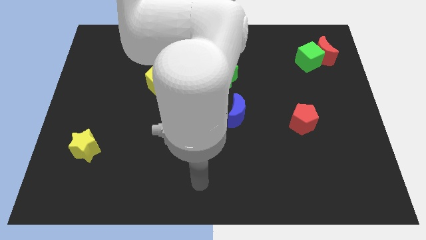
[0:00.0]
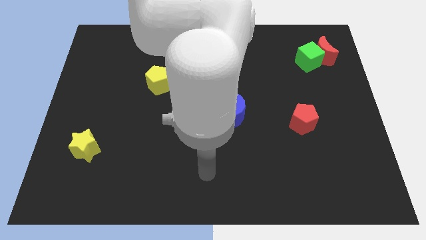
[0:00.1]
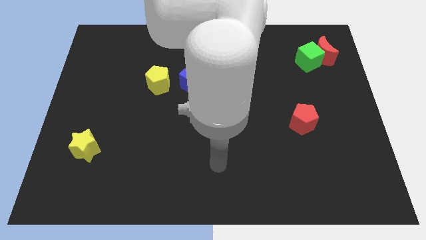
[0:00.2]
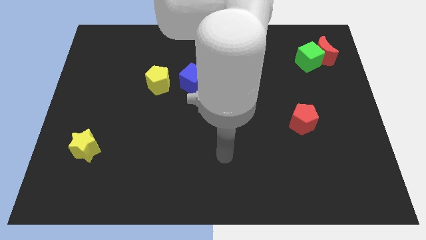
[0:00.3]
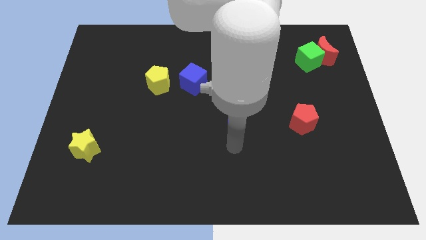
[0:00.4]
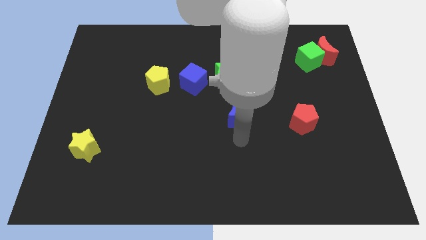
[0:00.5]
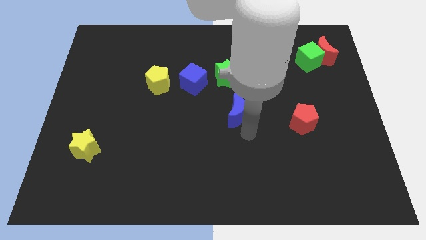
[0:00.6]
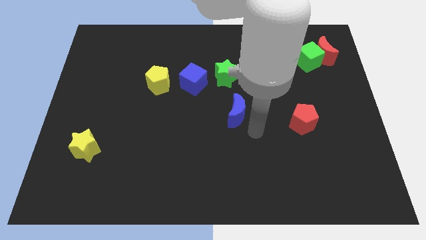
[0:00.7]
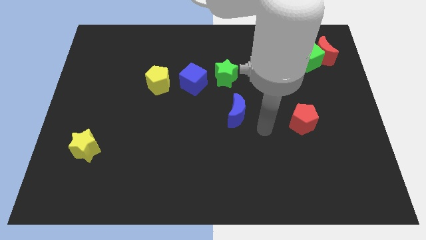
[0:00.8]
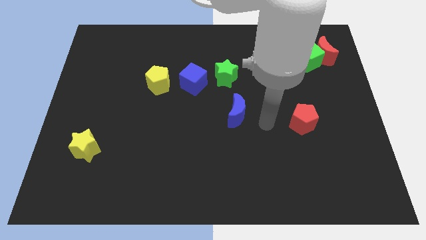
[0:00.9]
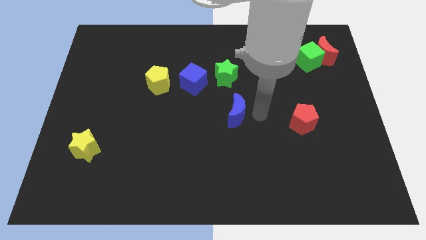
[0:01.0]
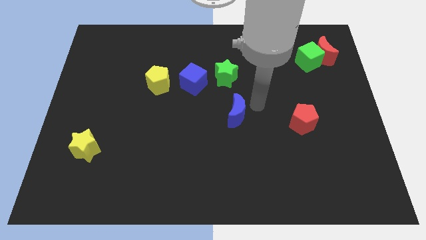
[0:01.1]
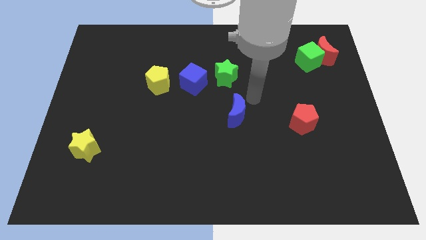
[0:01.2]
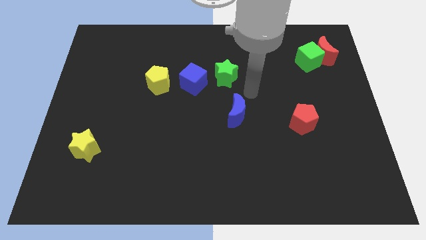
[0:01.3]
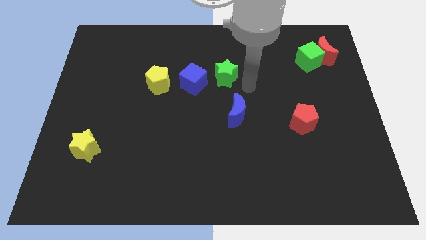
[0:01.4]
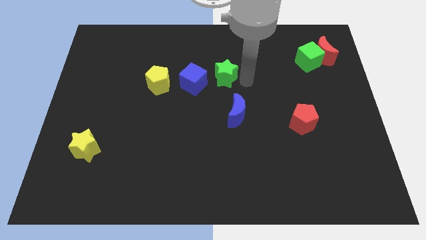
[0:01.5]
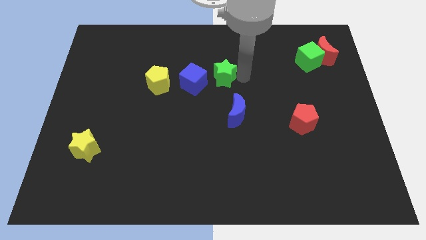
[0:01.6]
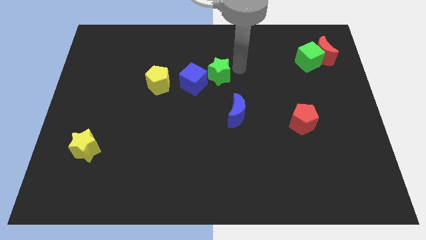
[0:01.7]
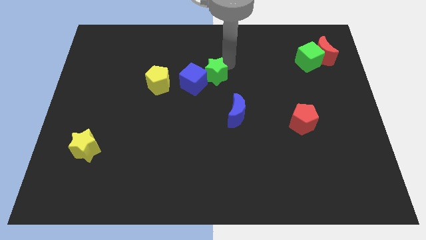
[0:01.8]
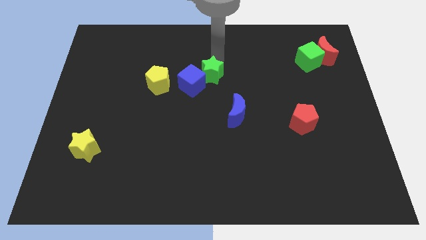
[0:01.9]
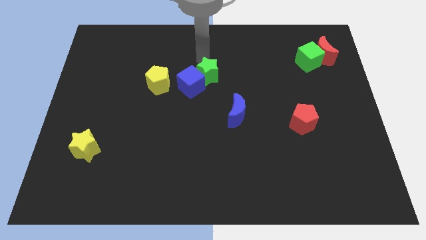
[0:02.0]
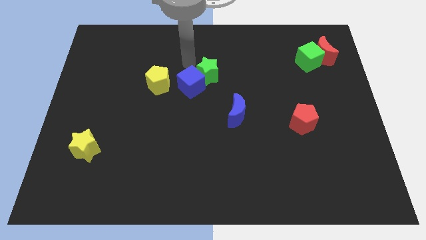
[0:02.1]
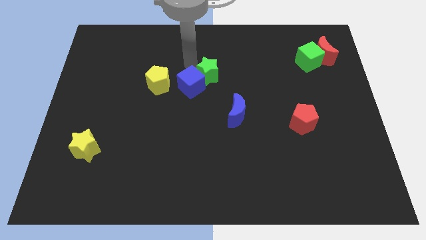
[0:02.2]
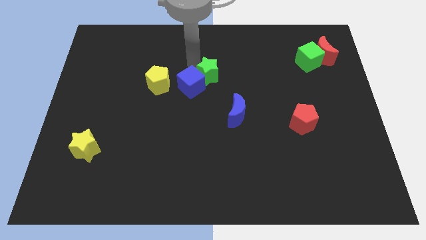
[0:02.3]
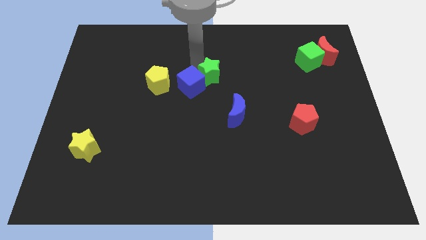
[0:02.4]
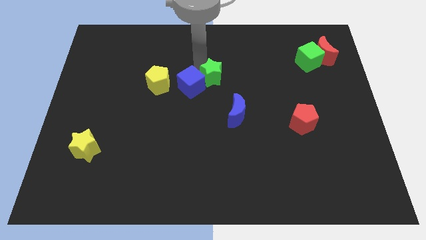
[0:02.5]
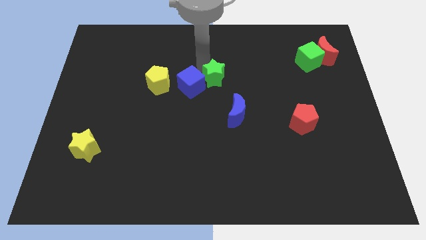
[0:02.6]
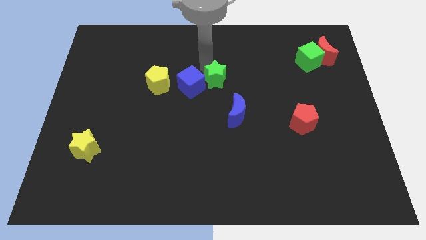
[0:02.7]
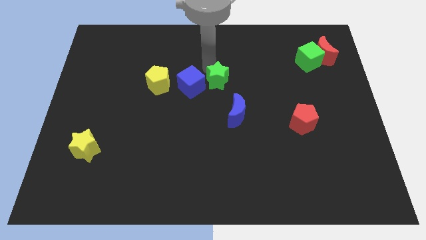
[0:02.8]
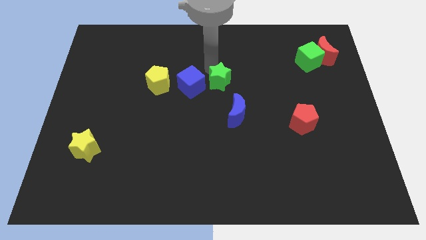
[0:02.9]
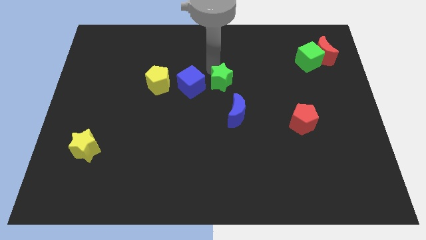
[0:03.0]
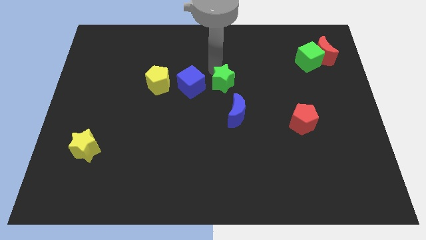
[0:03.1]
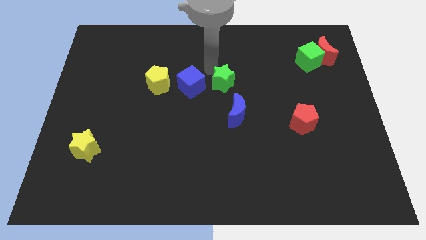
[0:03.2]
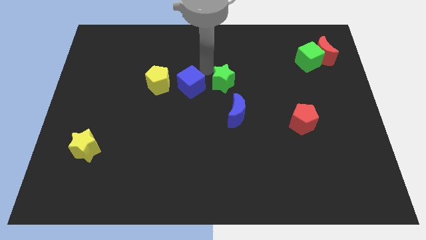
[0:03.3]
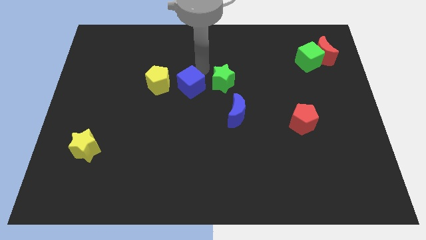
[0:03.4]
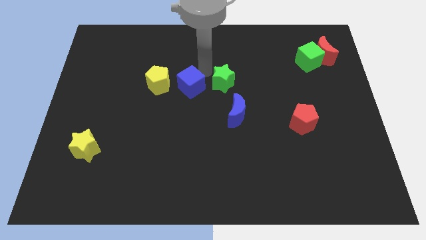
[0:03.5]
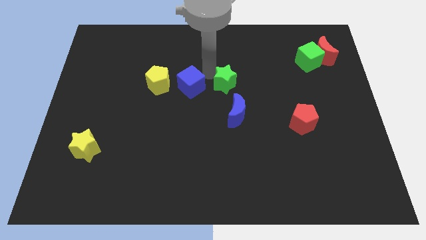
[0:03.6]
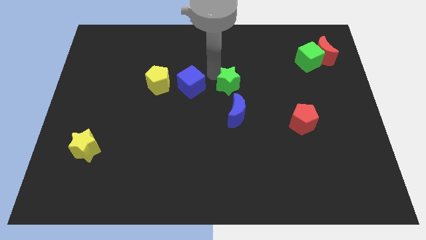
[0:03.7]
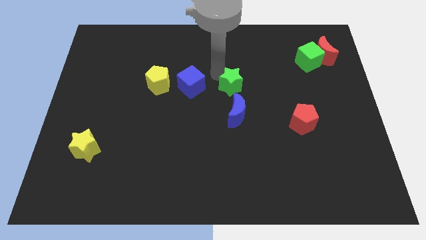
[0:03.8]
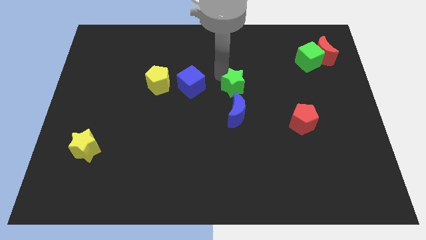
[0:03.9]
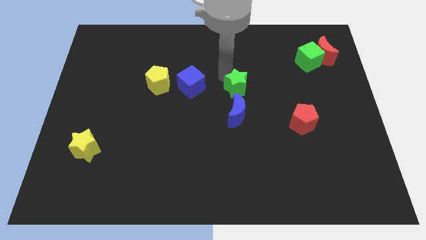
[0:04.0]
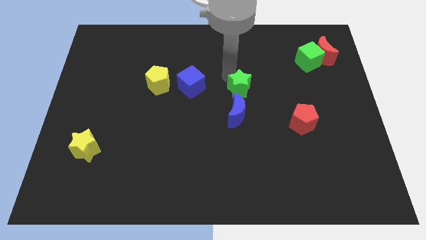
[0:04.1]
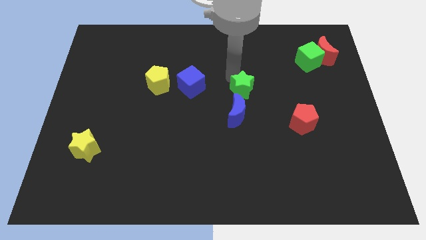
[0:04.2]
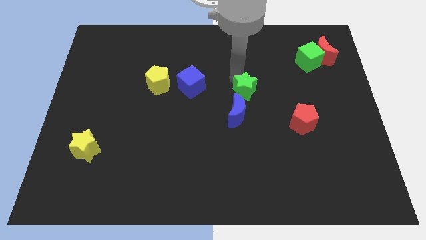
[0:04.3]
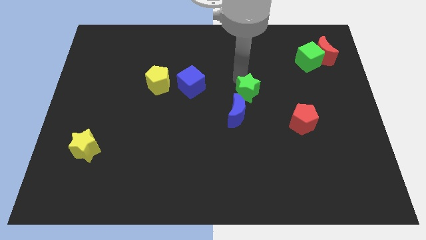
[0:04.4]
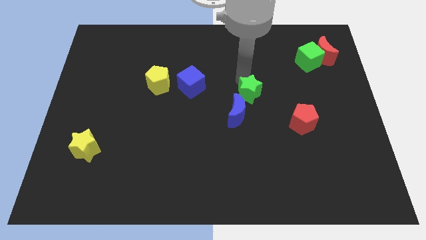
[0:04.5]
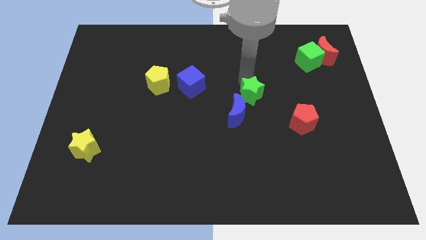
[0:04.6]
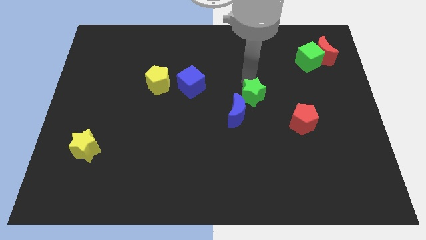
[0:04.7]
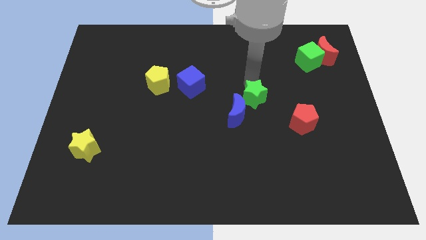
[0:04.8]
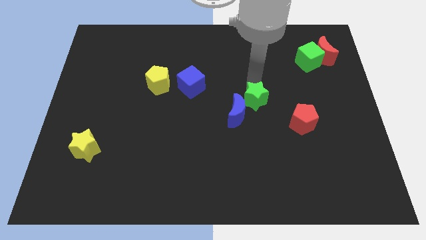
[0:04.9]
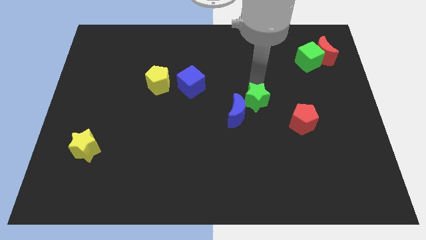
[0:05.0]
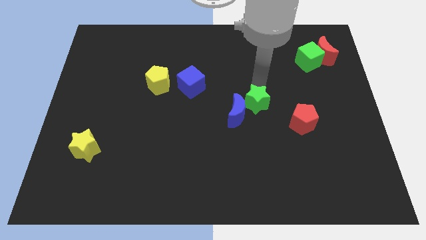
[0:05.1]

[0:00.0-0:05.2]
push the green star towards the blue moon

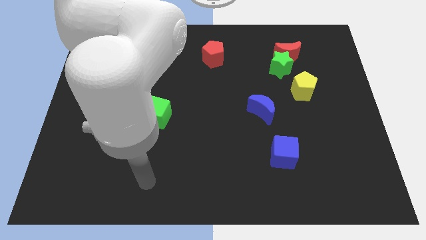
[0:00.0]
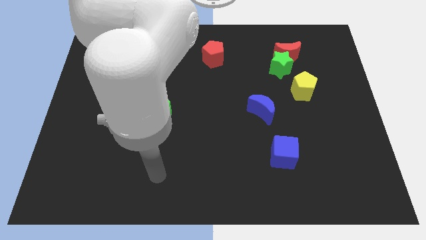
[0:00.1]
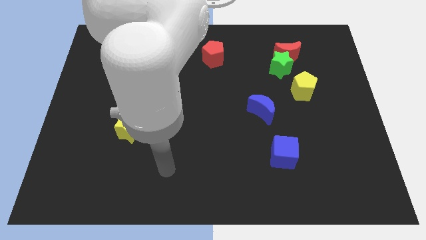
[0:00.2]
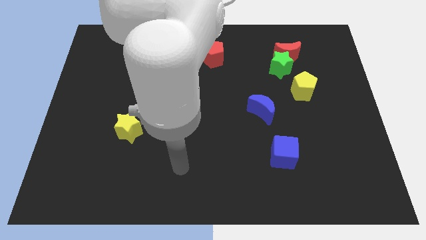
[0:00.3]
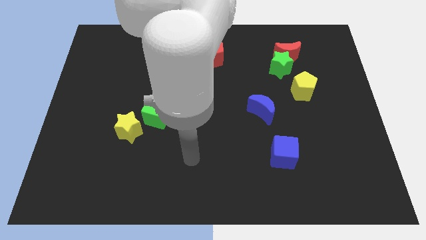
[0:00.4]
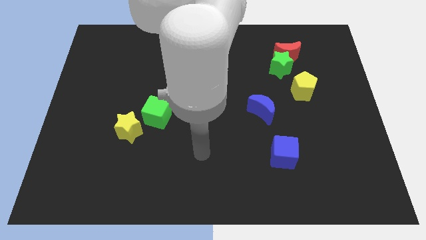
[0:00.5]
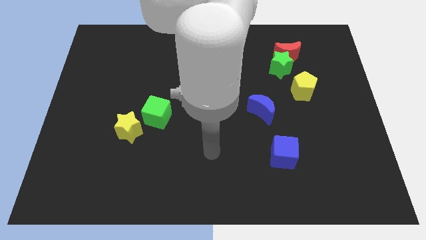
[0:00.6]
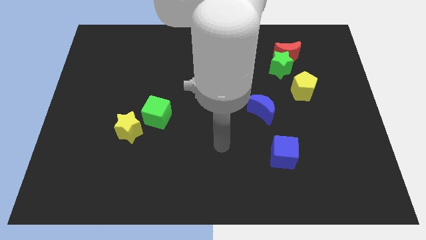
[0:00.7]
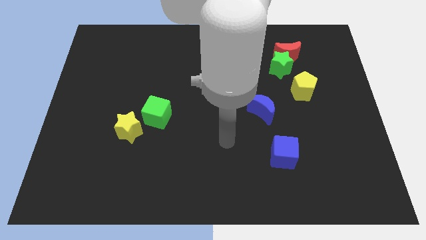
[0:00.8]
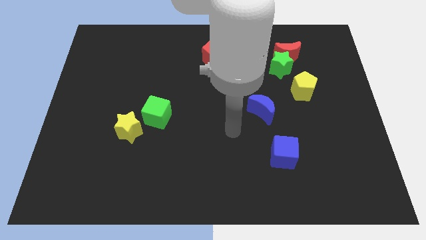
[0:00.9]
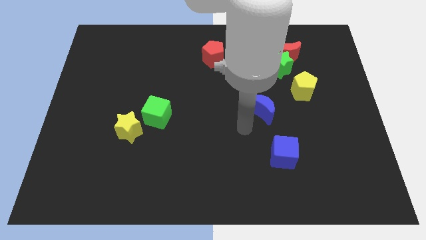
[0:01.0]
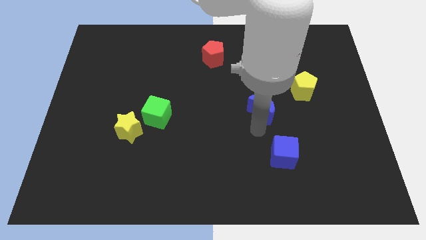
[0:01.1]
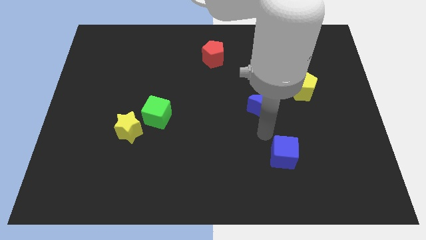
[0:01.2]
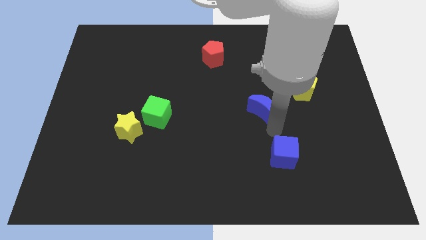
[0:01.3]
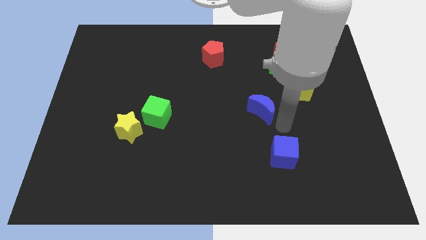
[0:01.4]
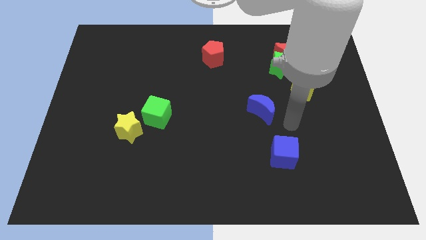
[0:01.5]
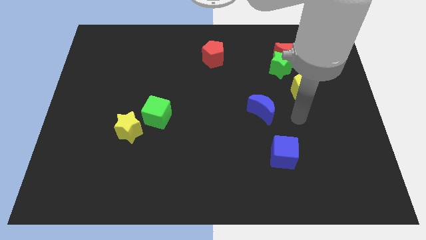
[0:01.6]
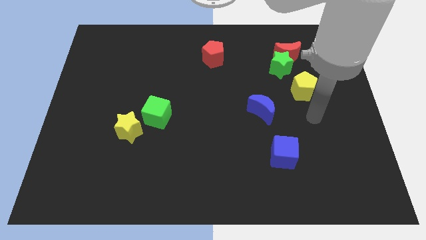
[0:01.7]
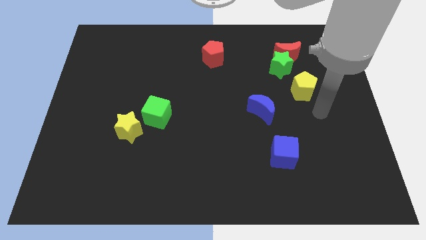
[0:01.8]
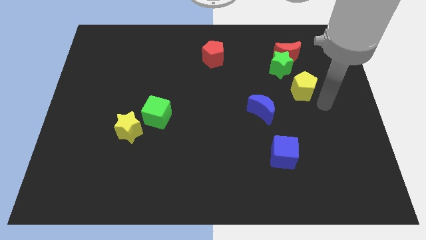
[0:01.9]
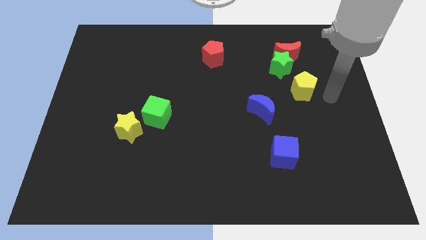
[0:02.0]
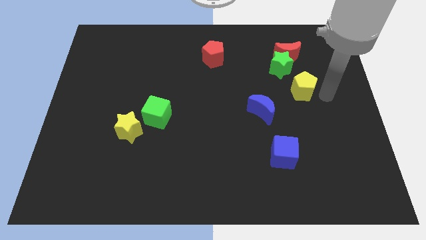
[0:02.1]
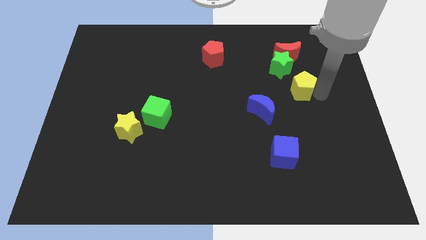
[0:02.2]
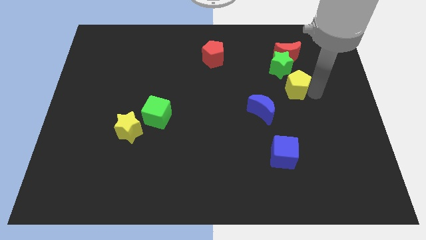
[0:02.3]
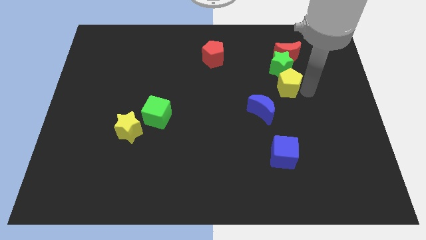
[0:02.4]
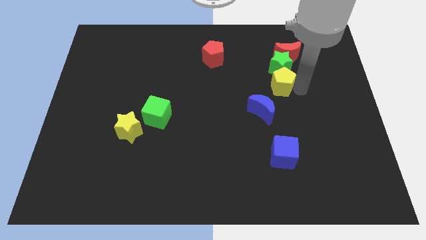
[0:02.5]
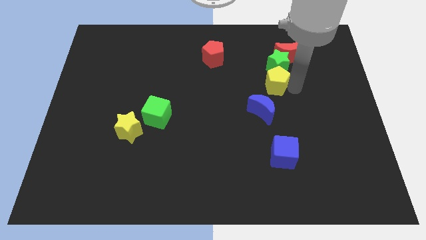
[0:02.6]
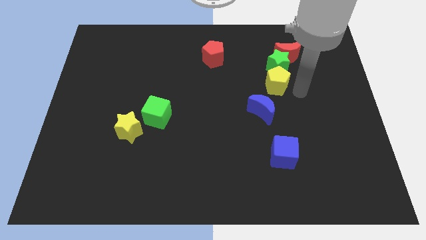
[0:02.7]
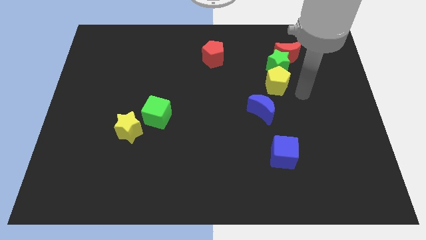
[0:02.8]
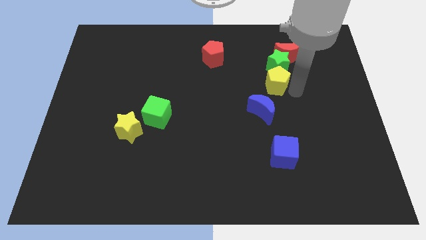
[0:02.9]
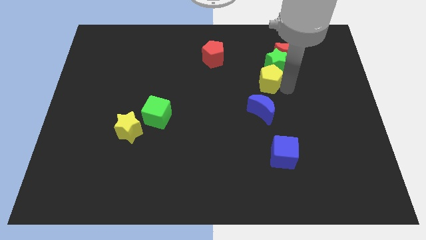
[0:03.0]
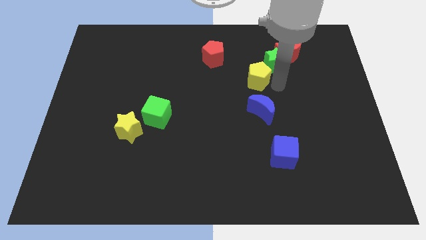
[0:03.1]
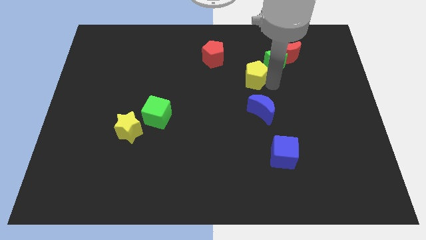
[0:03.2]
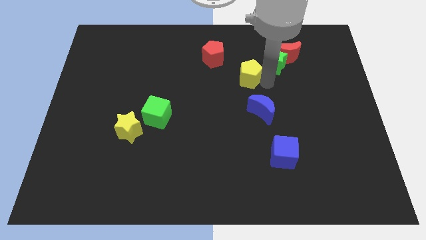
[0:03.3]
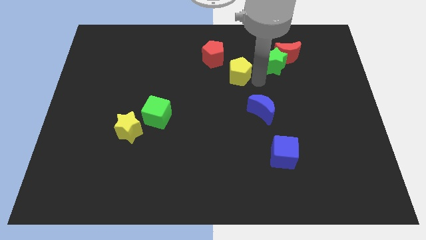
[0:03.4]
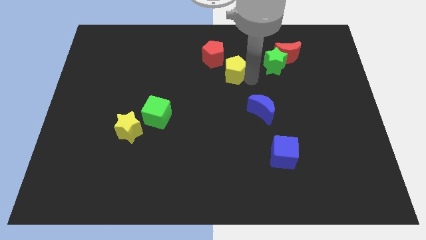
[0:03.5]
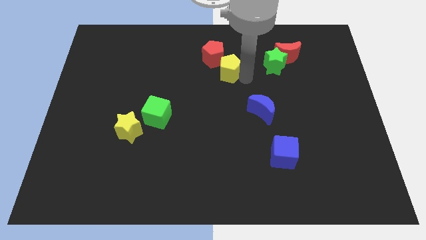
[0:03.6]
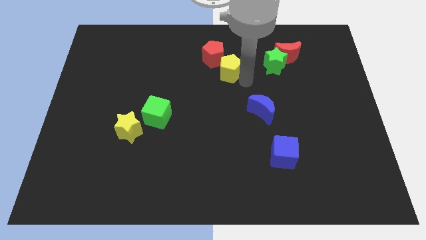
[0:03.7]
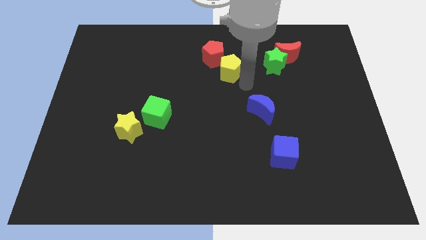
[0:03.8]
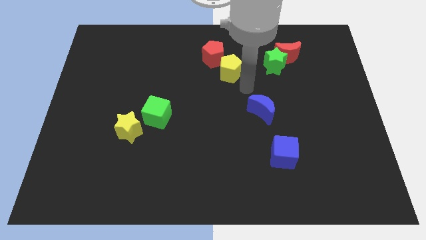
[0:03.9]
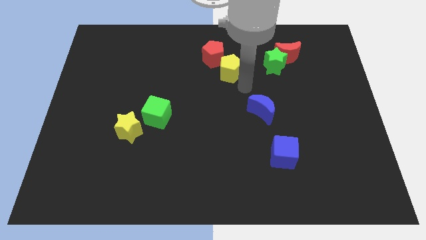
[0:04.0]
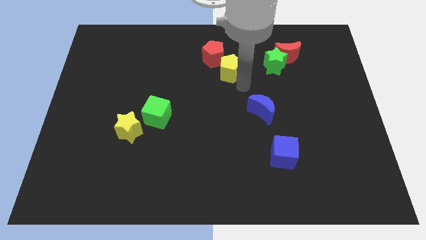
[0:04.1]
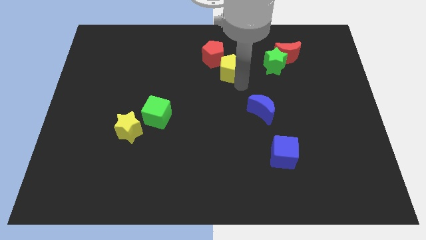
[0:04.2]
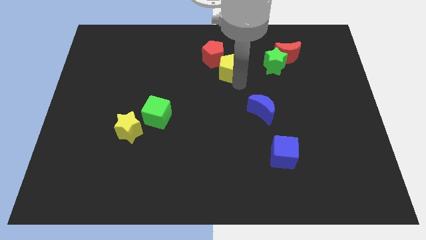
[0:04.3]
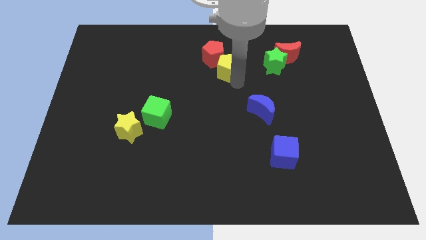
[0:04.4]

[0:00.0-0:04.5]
move the yellow pentagon towards the red pentagon
